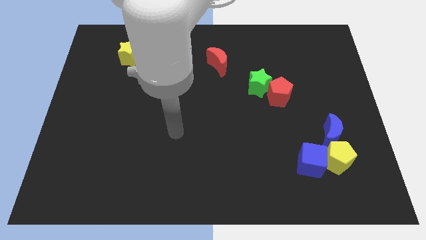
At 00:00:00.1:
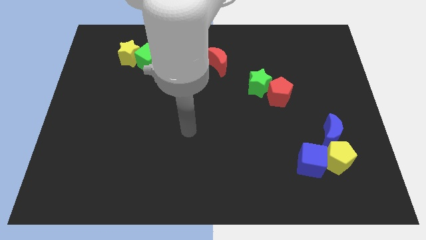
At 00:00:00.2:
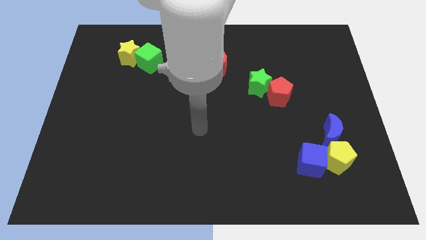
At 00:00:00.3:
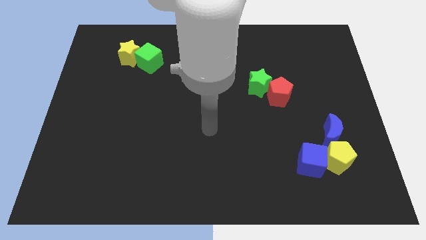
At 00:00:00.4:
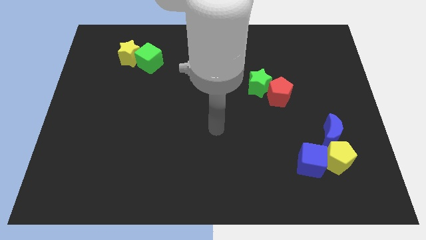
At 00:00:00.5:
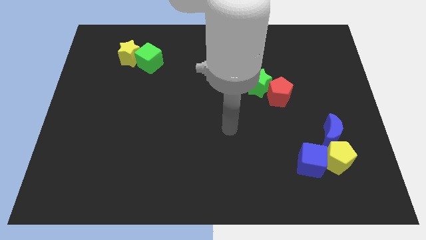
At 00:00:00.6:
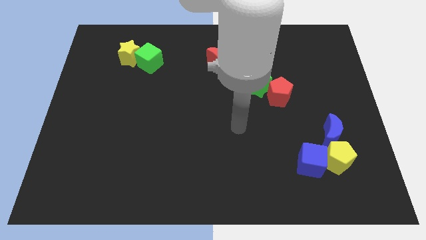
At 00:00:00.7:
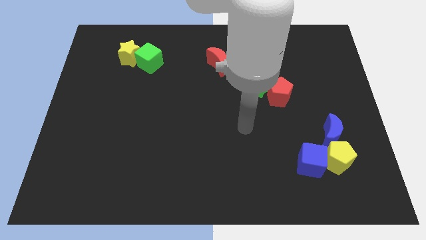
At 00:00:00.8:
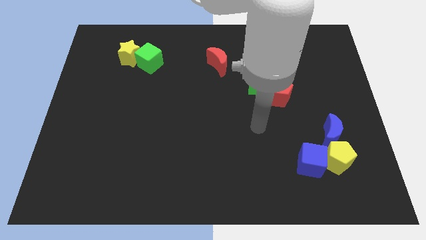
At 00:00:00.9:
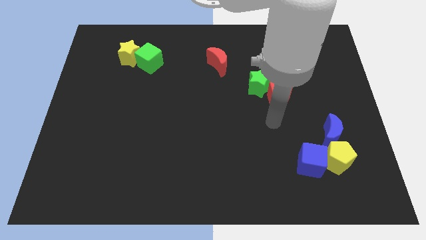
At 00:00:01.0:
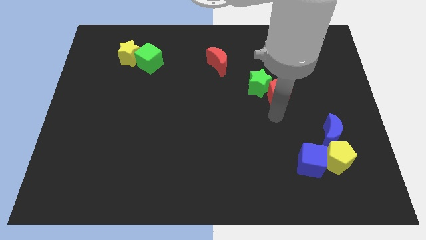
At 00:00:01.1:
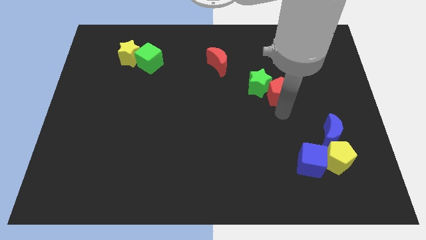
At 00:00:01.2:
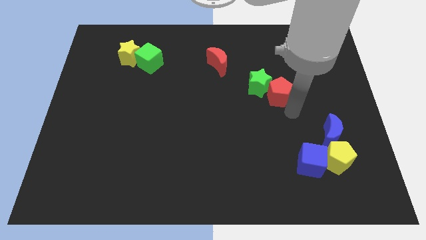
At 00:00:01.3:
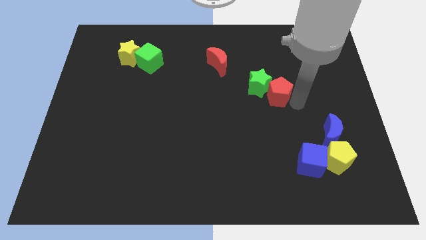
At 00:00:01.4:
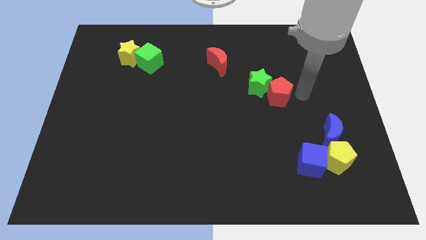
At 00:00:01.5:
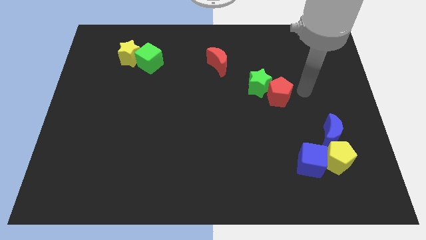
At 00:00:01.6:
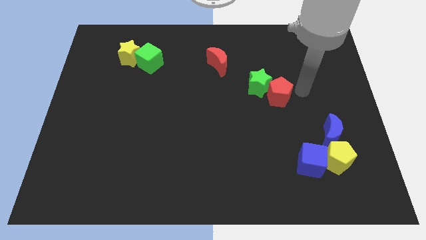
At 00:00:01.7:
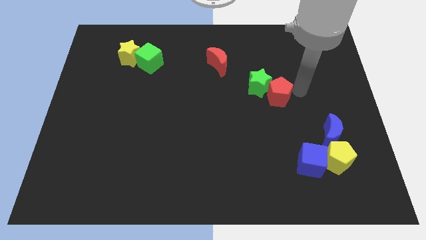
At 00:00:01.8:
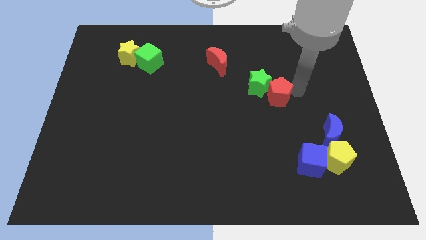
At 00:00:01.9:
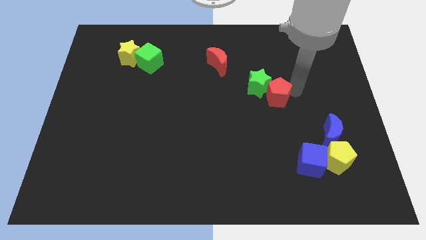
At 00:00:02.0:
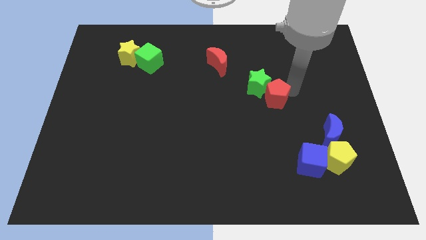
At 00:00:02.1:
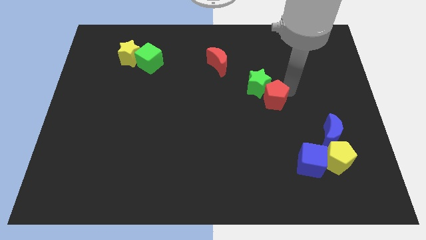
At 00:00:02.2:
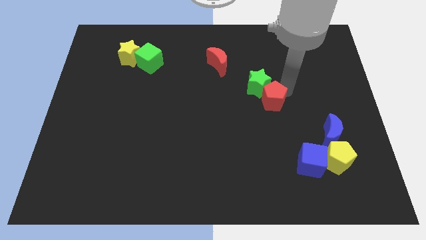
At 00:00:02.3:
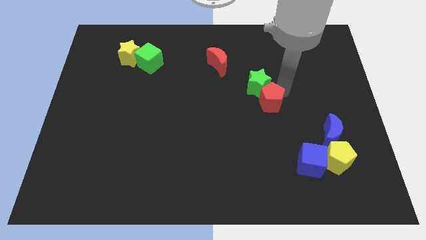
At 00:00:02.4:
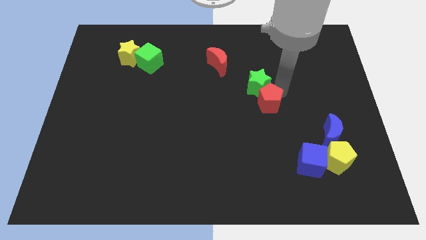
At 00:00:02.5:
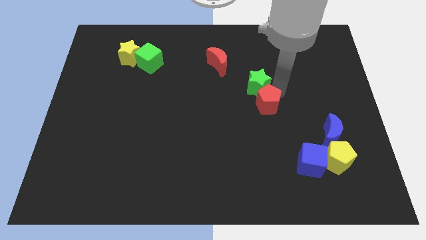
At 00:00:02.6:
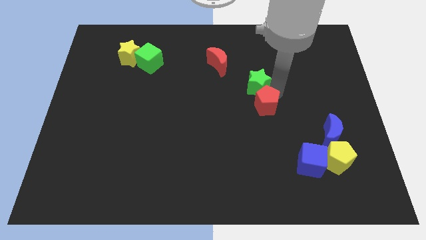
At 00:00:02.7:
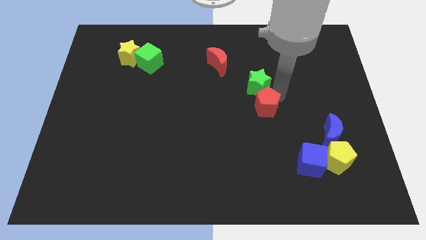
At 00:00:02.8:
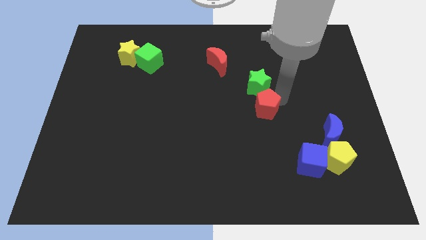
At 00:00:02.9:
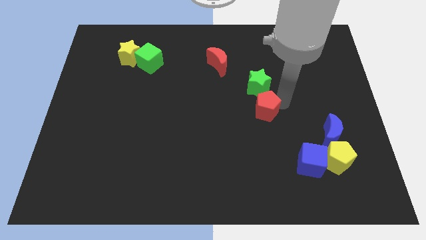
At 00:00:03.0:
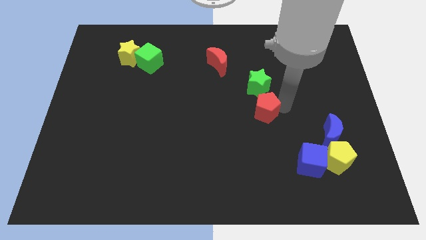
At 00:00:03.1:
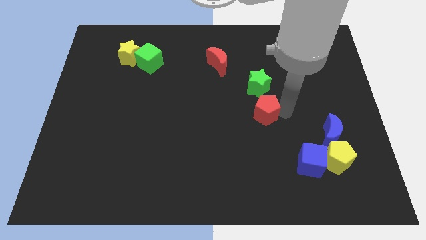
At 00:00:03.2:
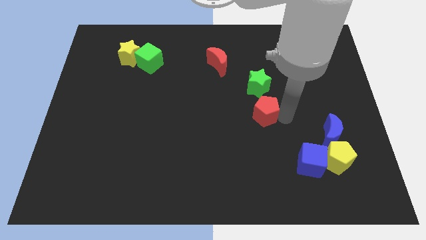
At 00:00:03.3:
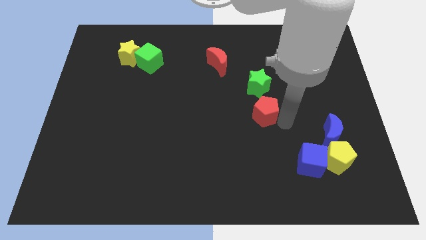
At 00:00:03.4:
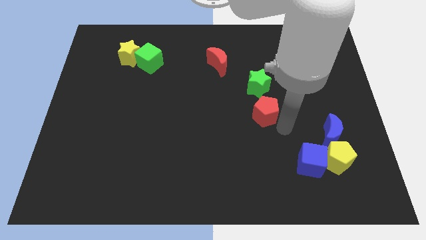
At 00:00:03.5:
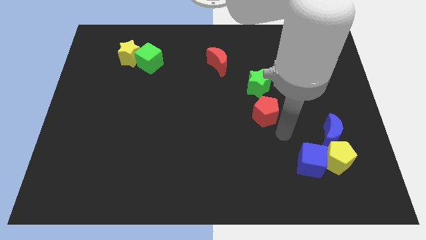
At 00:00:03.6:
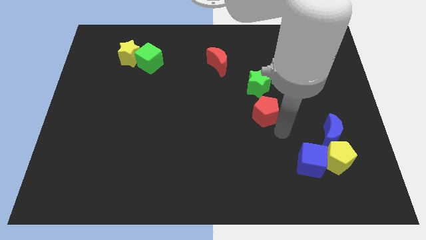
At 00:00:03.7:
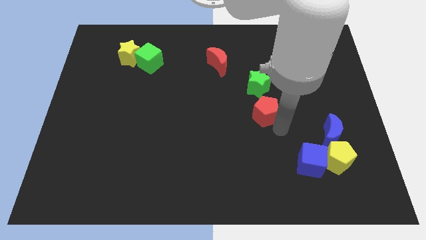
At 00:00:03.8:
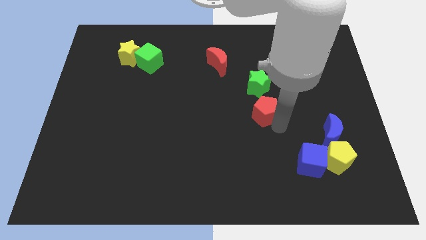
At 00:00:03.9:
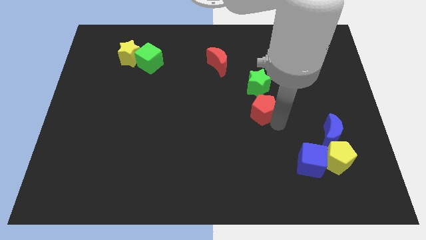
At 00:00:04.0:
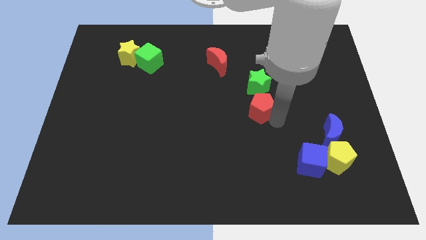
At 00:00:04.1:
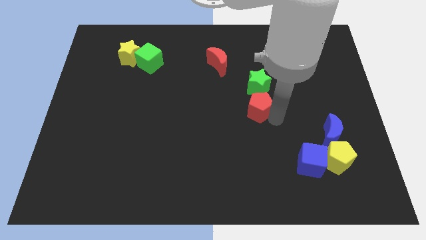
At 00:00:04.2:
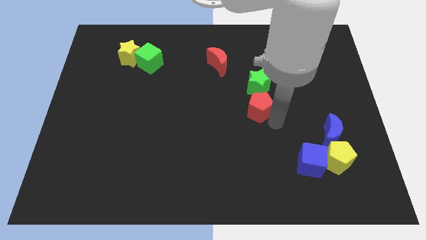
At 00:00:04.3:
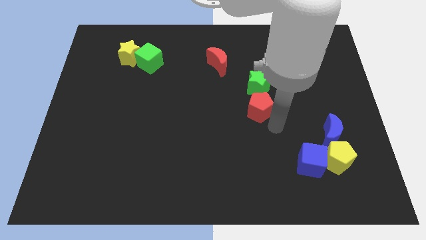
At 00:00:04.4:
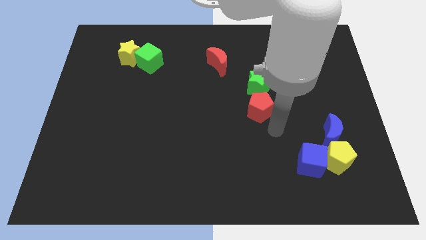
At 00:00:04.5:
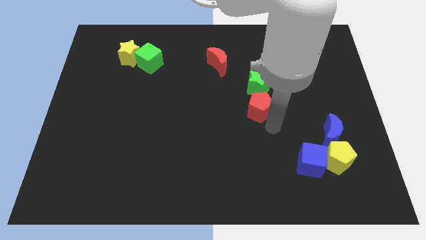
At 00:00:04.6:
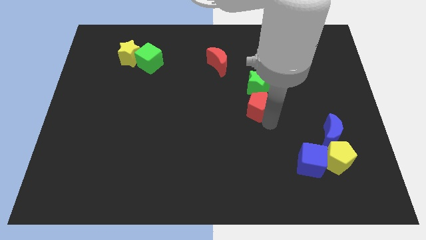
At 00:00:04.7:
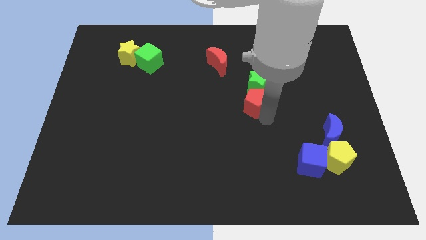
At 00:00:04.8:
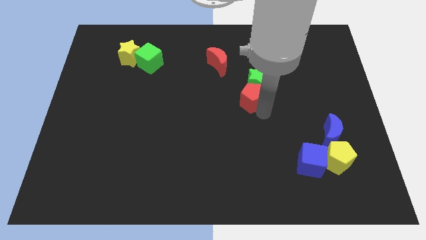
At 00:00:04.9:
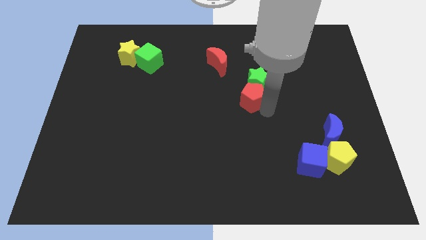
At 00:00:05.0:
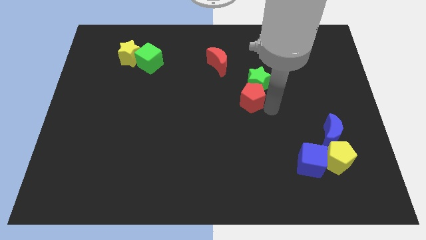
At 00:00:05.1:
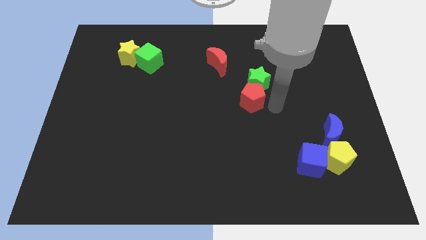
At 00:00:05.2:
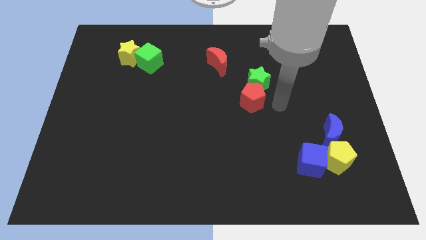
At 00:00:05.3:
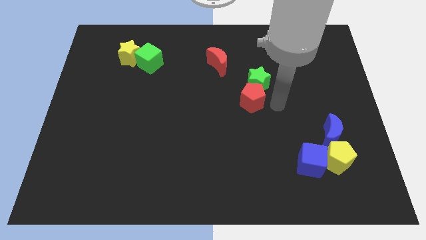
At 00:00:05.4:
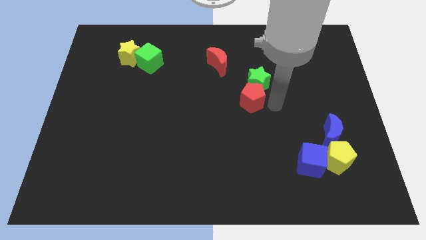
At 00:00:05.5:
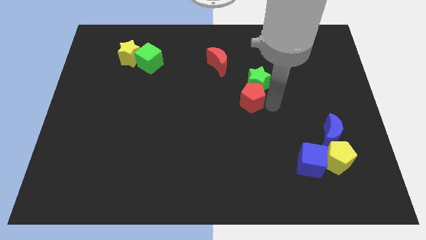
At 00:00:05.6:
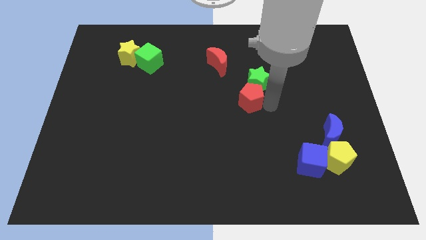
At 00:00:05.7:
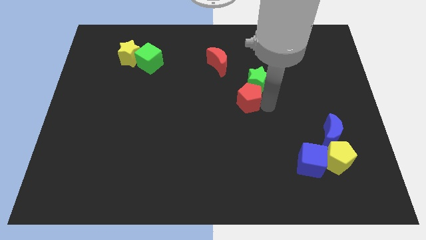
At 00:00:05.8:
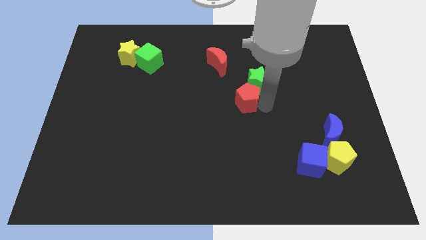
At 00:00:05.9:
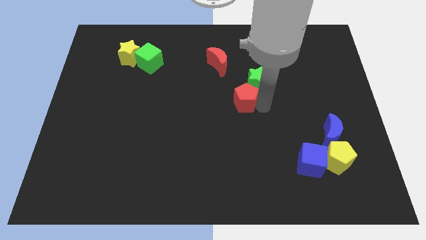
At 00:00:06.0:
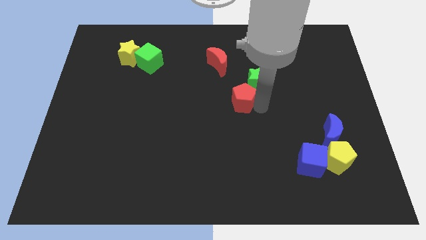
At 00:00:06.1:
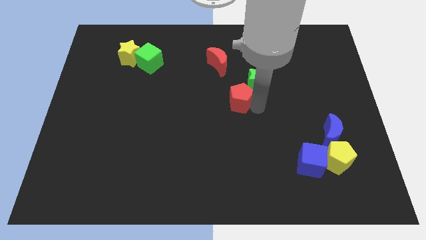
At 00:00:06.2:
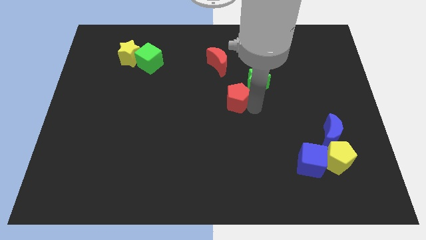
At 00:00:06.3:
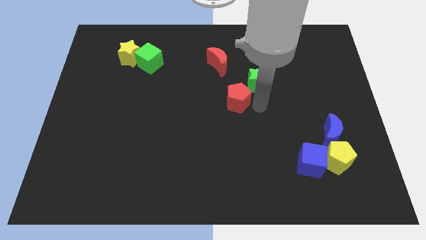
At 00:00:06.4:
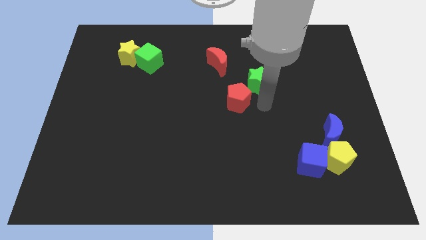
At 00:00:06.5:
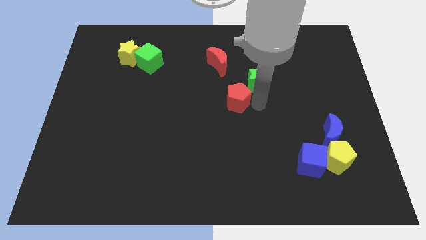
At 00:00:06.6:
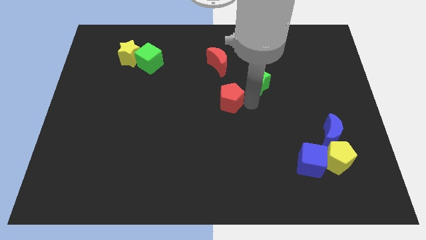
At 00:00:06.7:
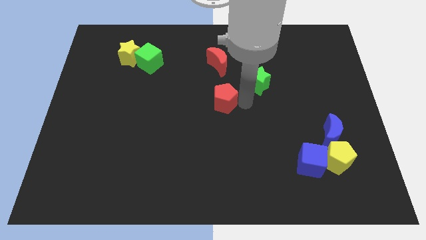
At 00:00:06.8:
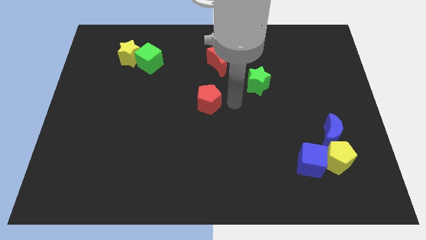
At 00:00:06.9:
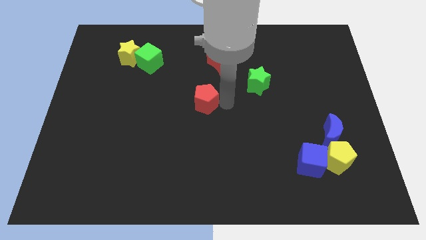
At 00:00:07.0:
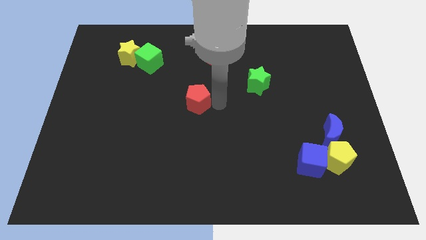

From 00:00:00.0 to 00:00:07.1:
slide the red pentagon to the left

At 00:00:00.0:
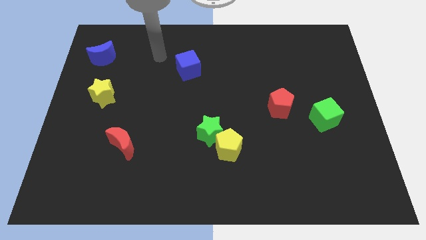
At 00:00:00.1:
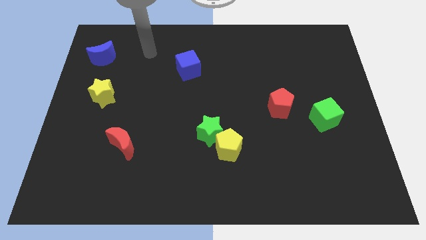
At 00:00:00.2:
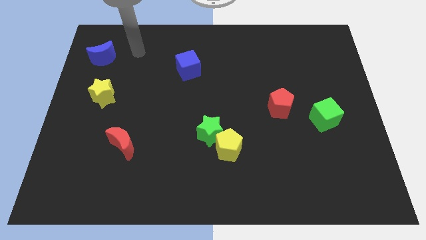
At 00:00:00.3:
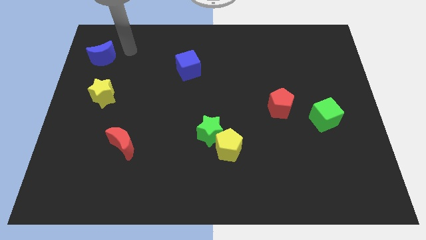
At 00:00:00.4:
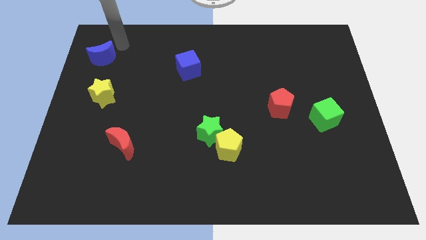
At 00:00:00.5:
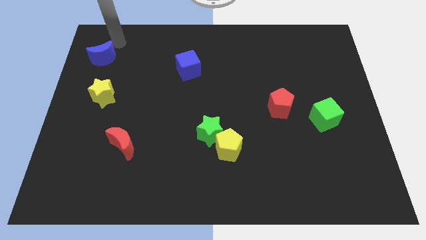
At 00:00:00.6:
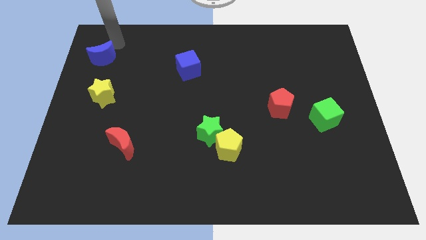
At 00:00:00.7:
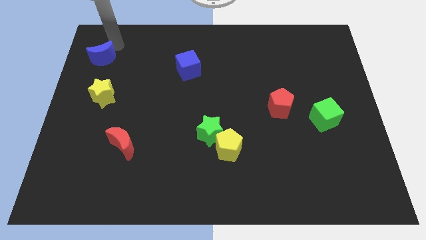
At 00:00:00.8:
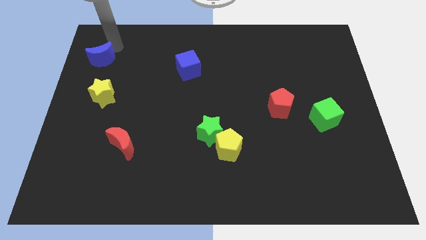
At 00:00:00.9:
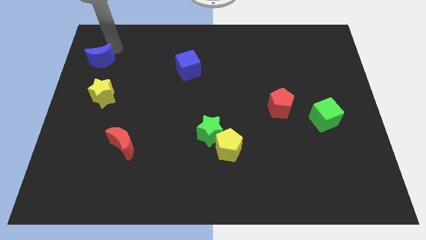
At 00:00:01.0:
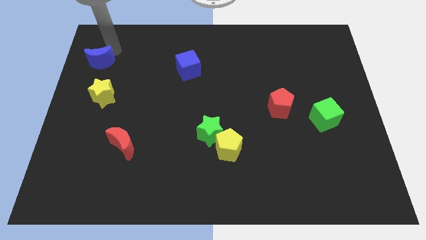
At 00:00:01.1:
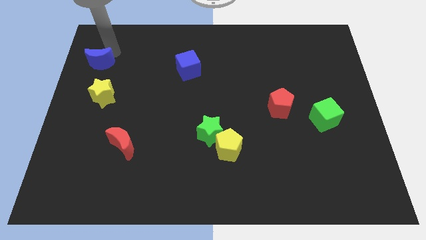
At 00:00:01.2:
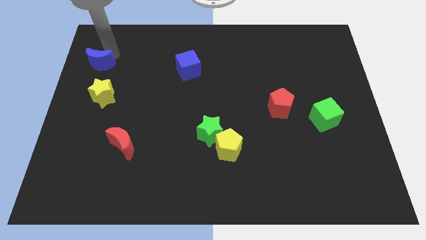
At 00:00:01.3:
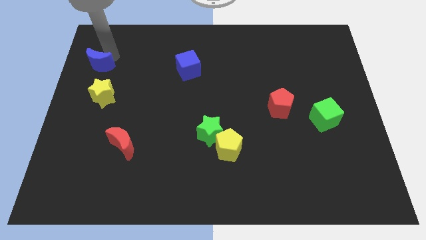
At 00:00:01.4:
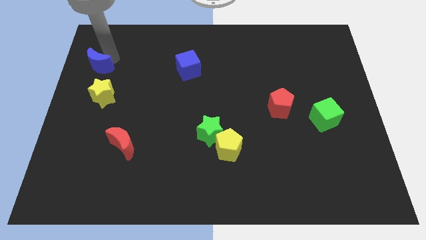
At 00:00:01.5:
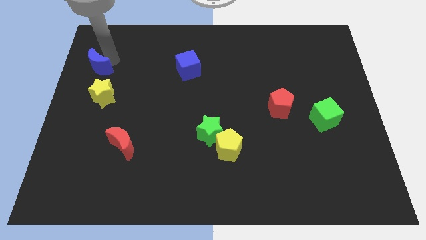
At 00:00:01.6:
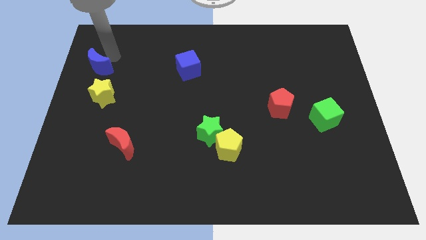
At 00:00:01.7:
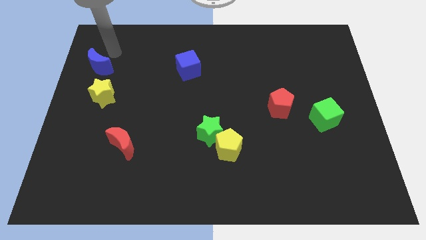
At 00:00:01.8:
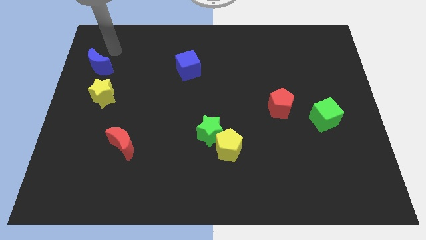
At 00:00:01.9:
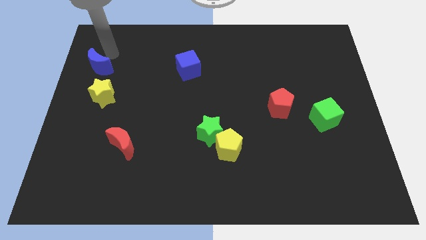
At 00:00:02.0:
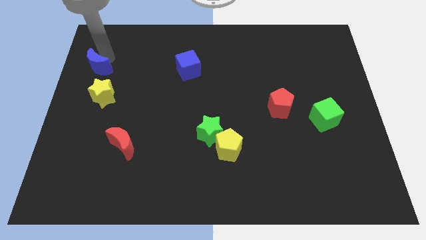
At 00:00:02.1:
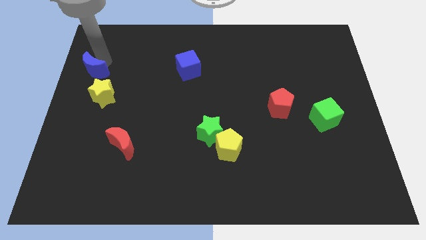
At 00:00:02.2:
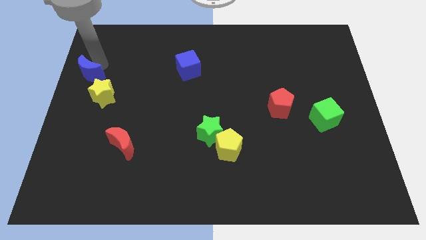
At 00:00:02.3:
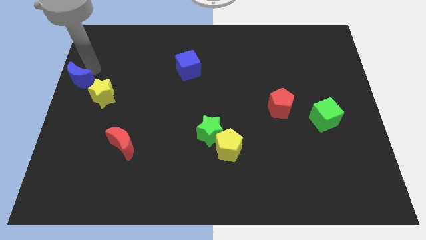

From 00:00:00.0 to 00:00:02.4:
slightly slide the blue moon downwards
